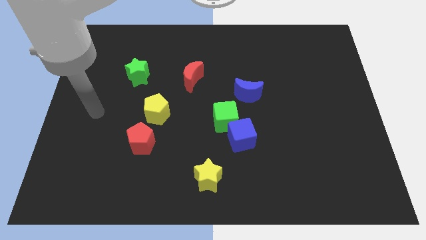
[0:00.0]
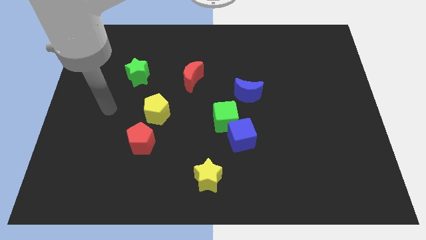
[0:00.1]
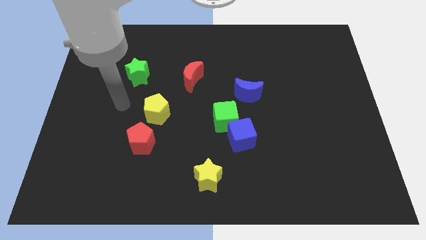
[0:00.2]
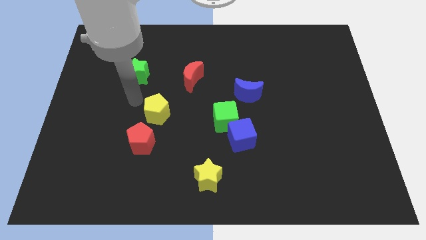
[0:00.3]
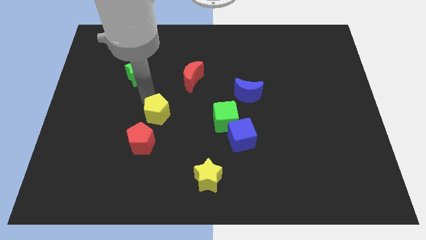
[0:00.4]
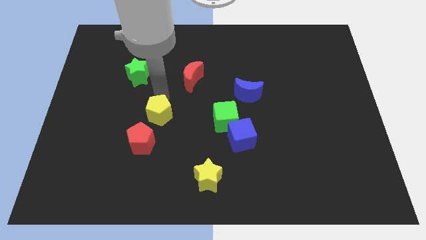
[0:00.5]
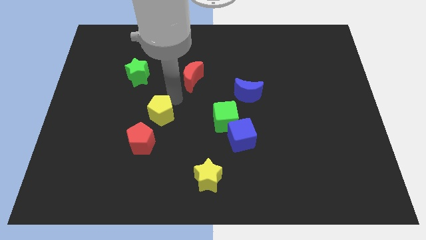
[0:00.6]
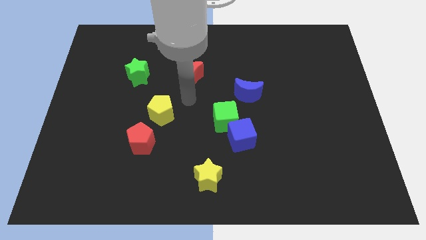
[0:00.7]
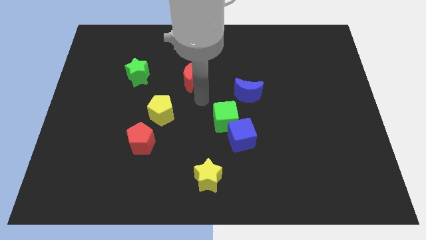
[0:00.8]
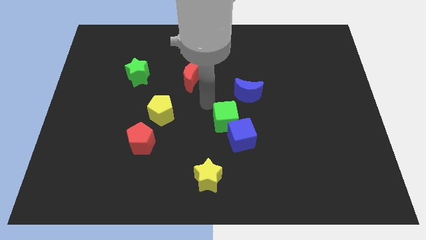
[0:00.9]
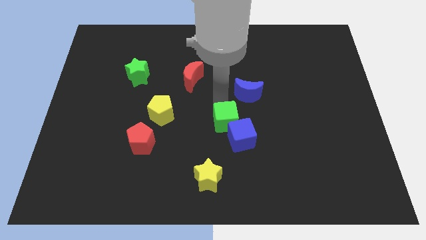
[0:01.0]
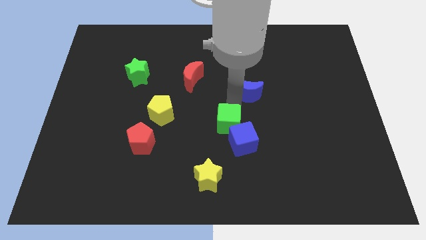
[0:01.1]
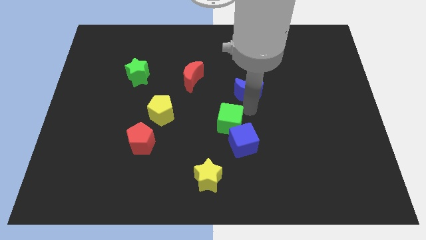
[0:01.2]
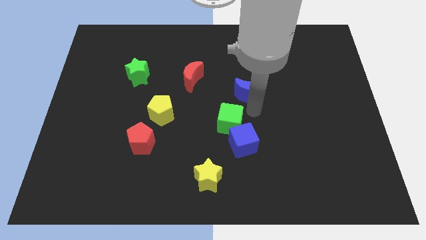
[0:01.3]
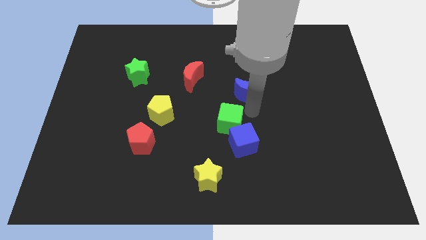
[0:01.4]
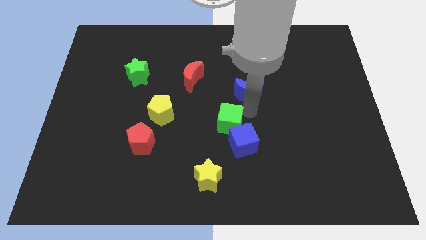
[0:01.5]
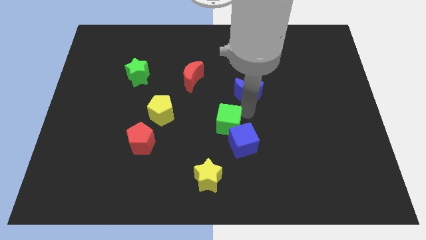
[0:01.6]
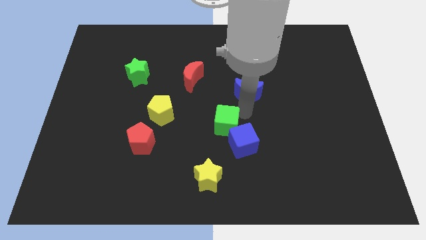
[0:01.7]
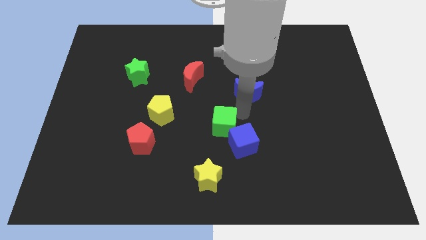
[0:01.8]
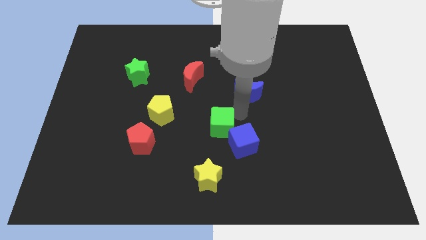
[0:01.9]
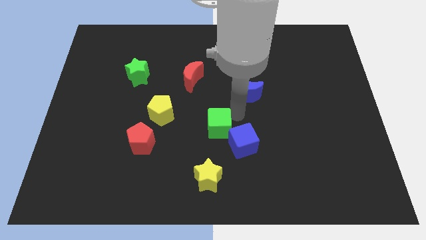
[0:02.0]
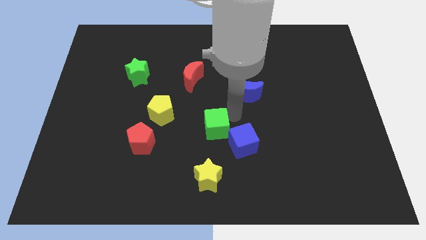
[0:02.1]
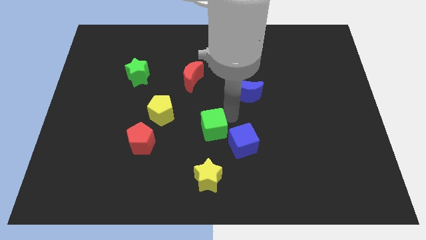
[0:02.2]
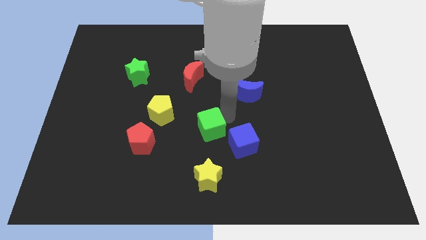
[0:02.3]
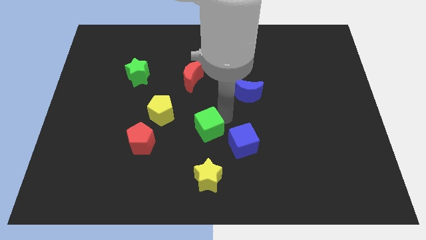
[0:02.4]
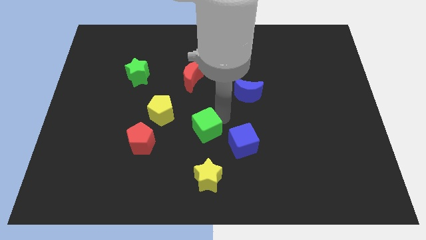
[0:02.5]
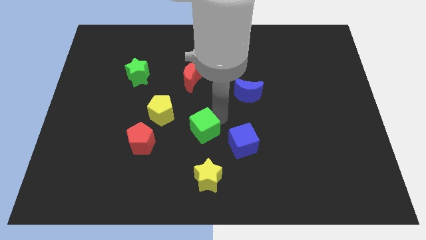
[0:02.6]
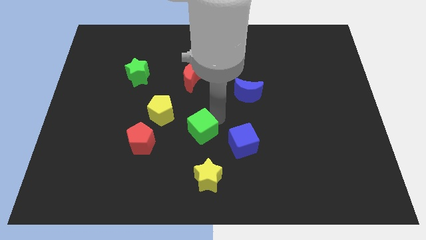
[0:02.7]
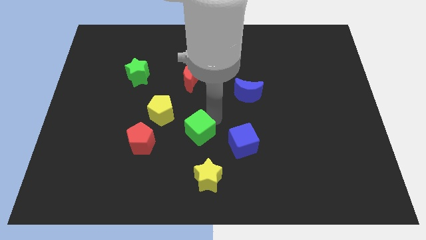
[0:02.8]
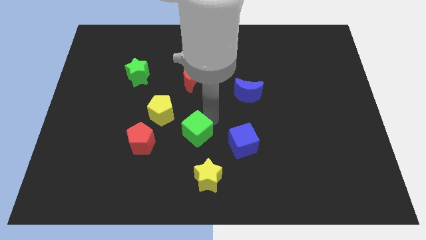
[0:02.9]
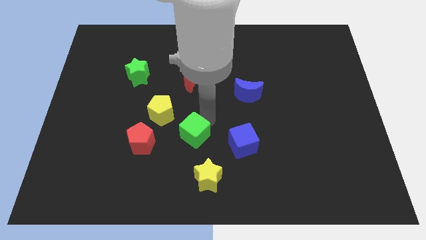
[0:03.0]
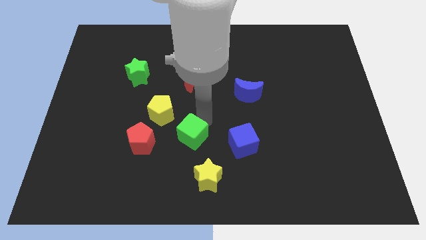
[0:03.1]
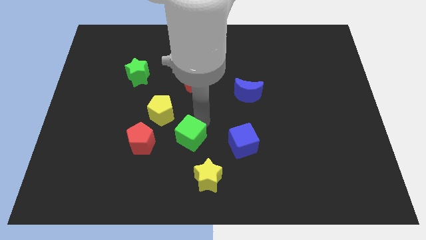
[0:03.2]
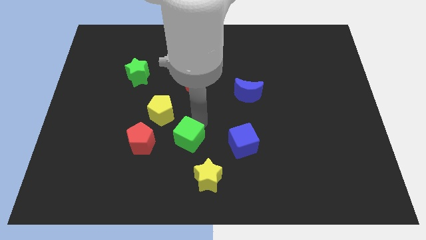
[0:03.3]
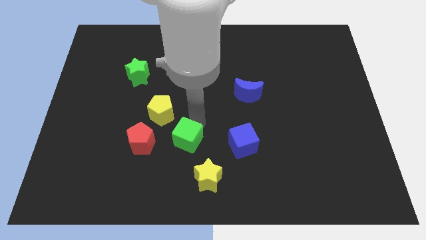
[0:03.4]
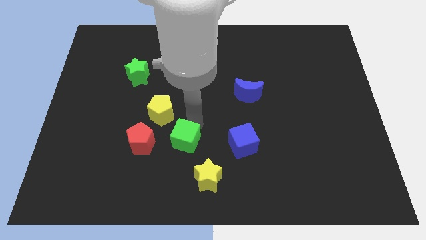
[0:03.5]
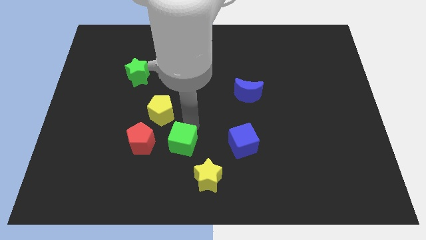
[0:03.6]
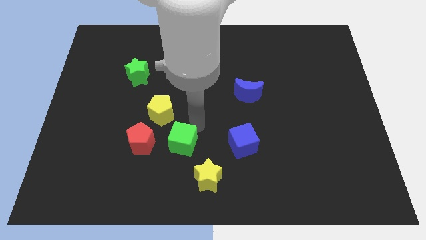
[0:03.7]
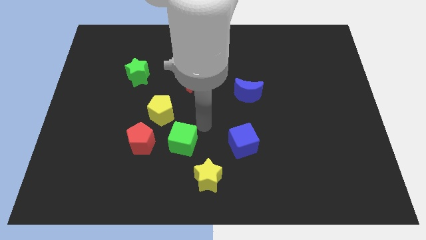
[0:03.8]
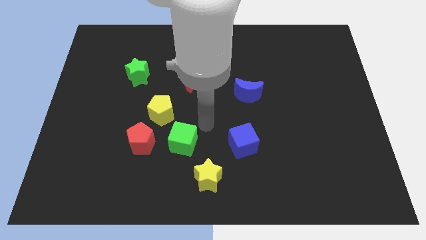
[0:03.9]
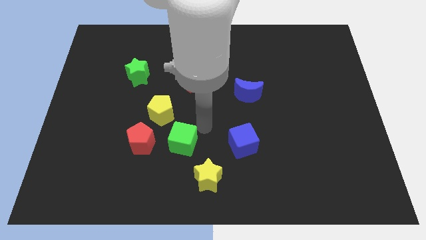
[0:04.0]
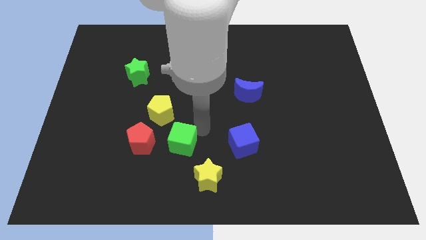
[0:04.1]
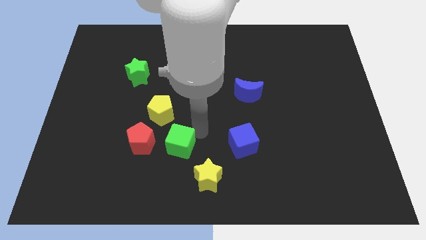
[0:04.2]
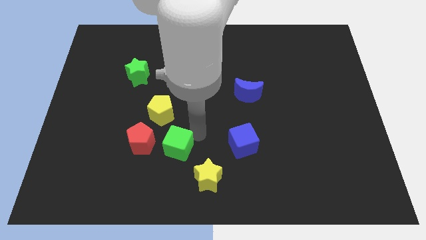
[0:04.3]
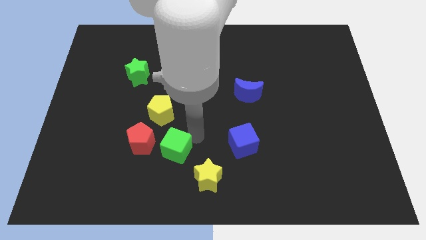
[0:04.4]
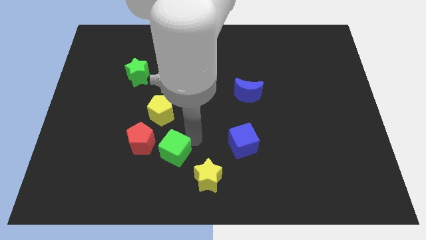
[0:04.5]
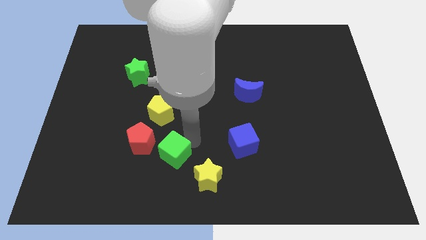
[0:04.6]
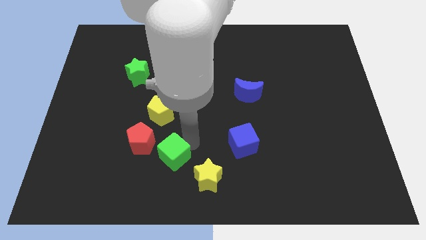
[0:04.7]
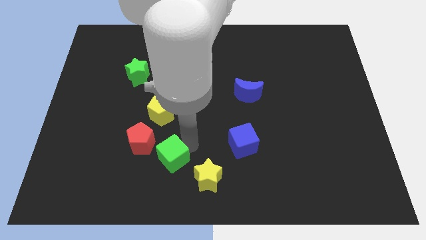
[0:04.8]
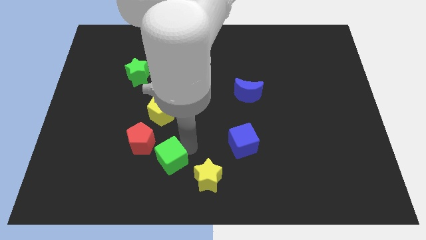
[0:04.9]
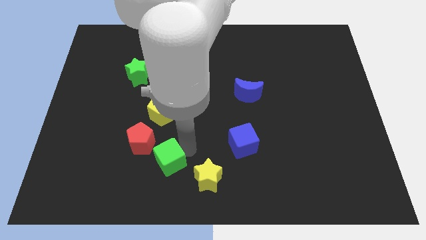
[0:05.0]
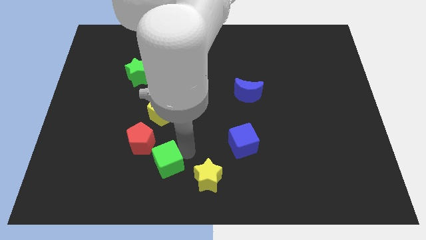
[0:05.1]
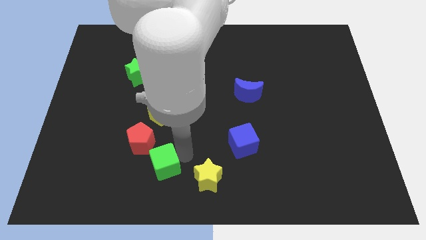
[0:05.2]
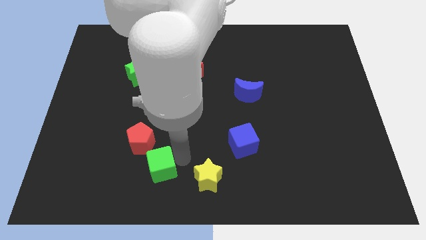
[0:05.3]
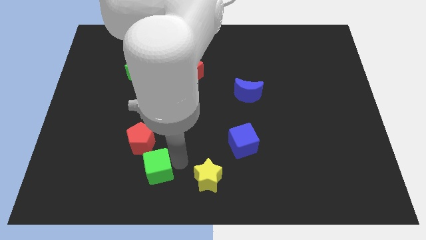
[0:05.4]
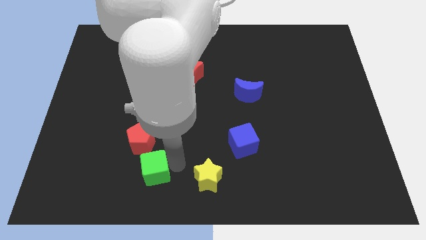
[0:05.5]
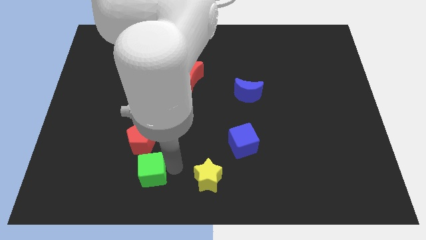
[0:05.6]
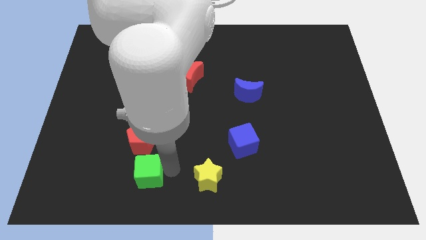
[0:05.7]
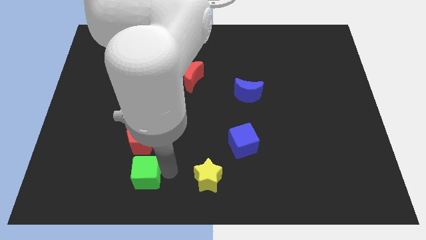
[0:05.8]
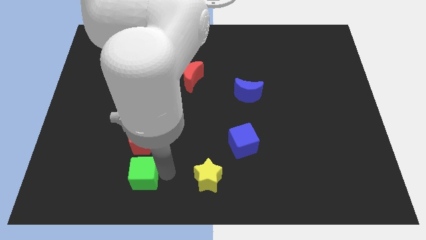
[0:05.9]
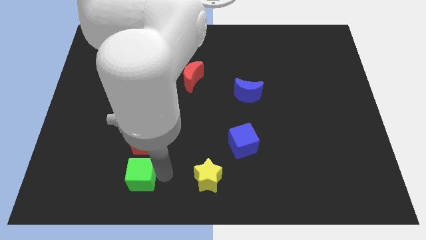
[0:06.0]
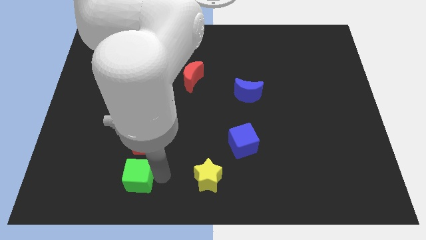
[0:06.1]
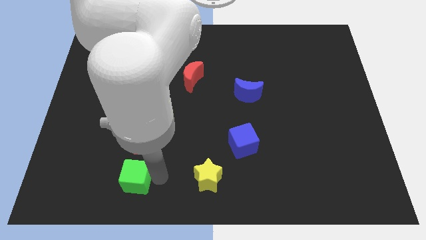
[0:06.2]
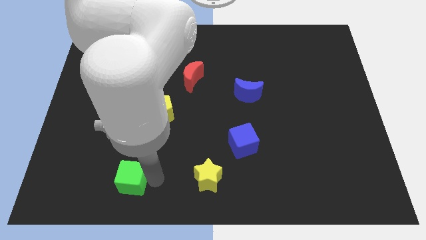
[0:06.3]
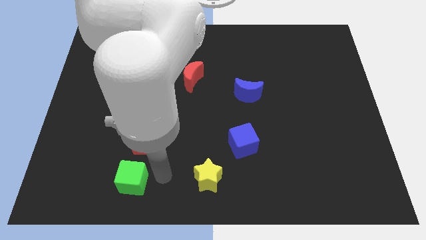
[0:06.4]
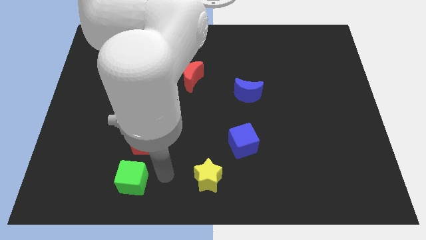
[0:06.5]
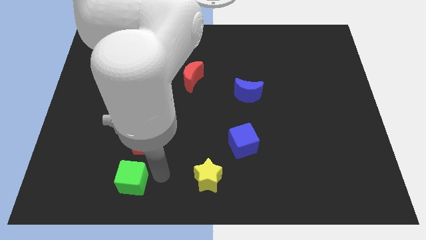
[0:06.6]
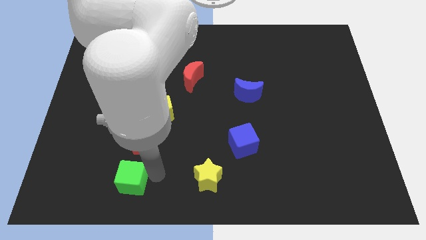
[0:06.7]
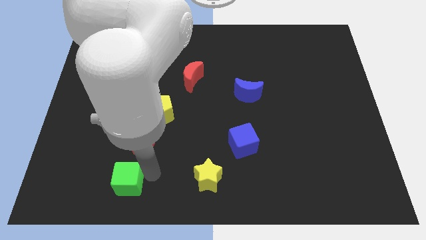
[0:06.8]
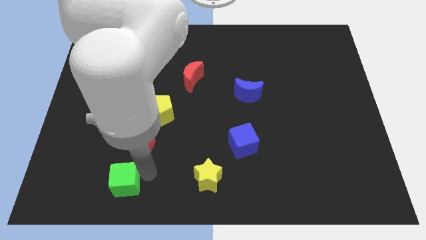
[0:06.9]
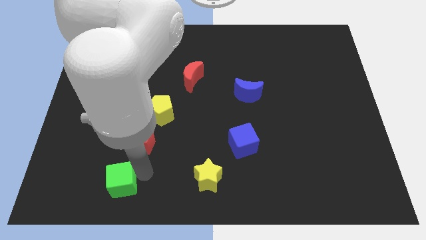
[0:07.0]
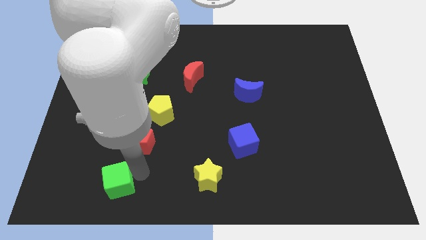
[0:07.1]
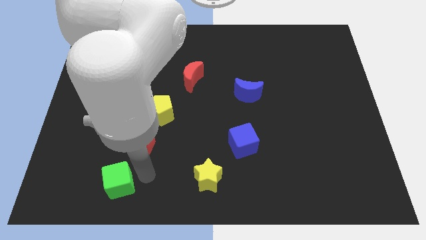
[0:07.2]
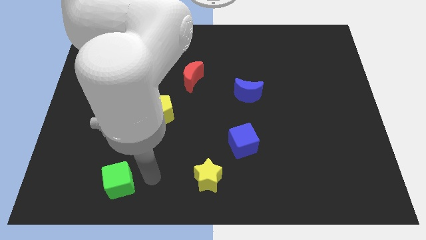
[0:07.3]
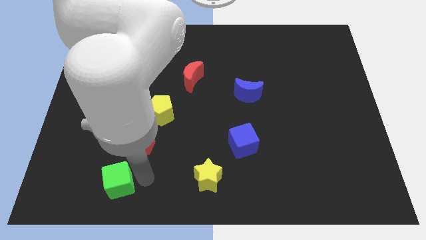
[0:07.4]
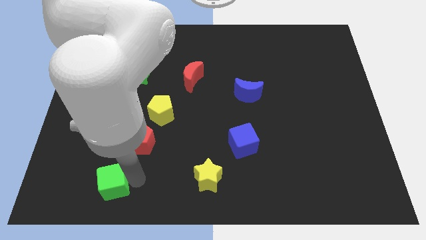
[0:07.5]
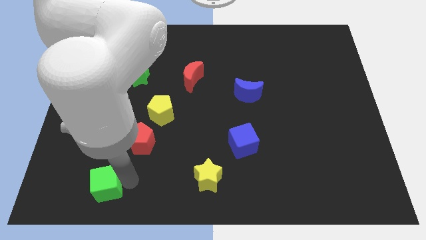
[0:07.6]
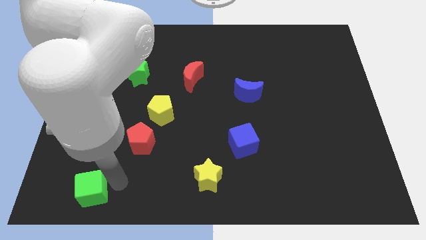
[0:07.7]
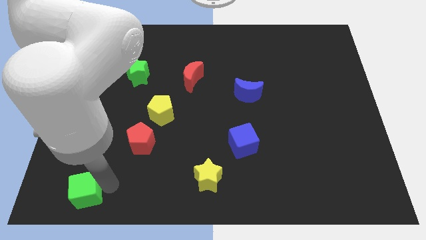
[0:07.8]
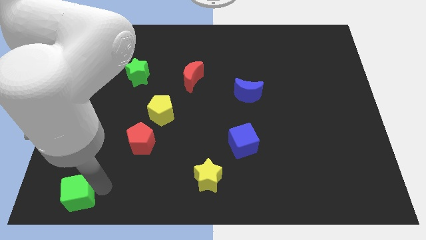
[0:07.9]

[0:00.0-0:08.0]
move the green cube to the bottom left corner
